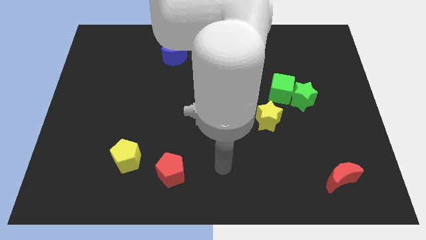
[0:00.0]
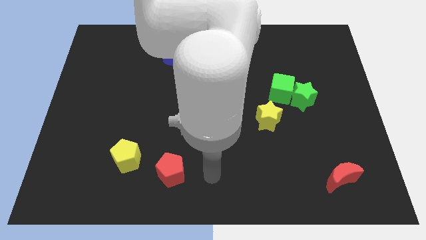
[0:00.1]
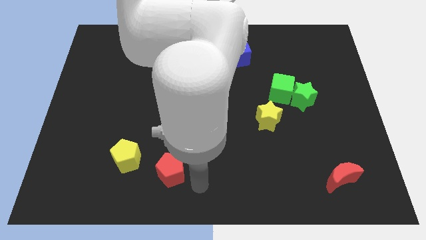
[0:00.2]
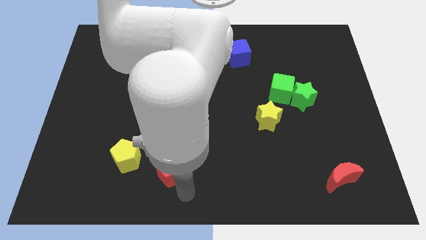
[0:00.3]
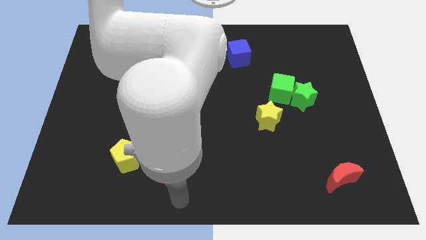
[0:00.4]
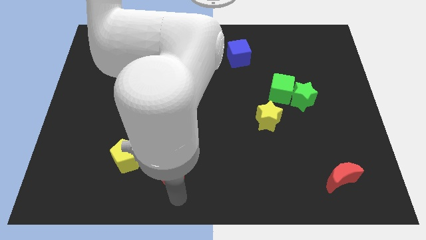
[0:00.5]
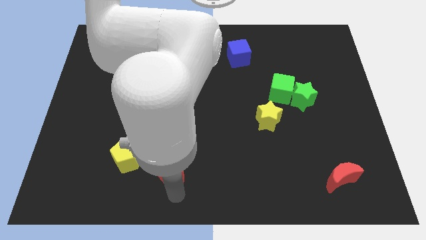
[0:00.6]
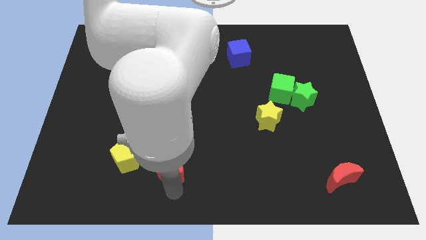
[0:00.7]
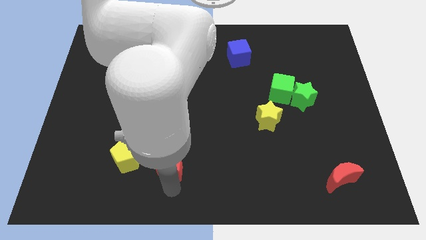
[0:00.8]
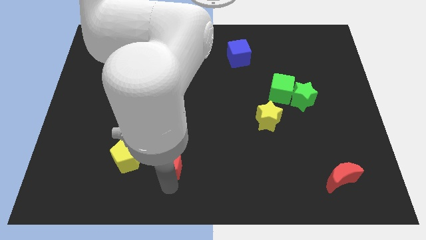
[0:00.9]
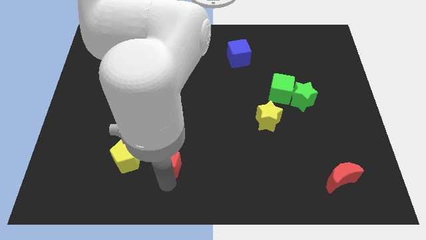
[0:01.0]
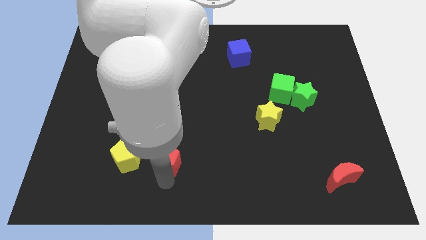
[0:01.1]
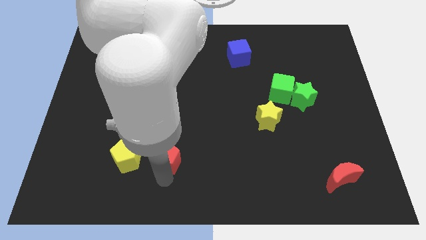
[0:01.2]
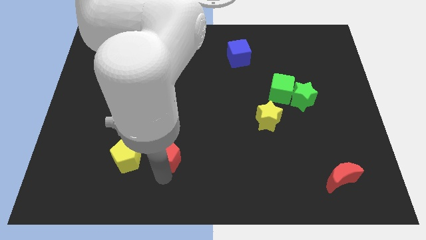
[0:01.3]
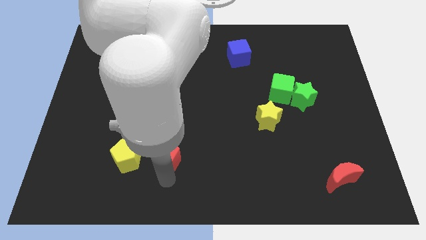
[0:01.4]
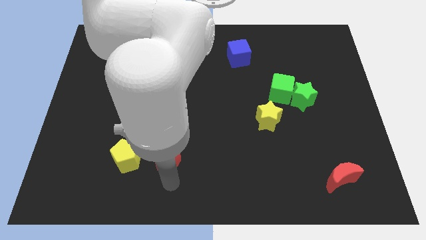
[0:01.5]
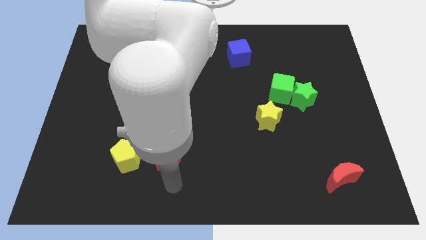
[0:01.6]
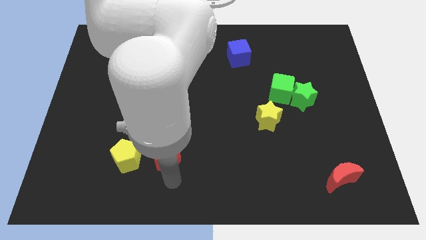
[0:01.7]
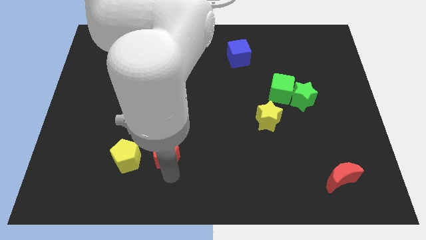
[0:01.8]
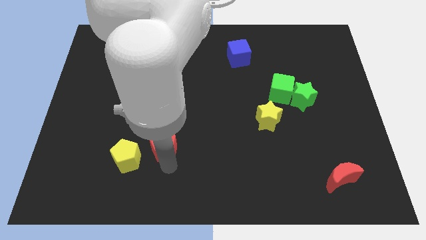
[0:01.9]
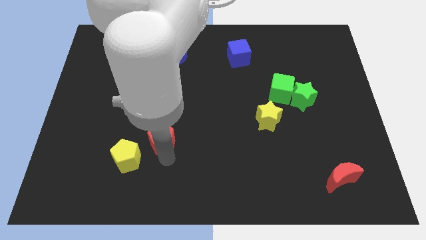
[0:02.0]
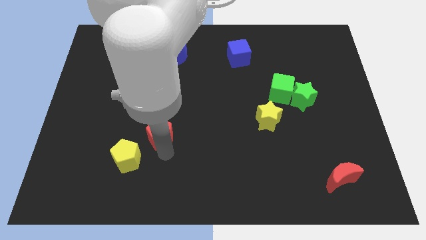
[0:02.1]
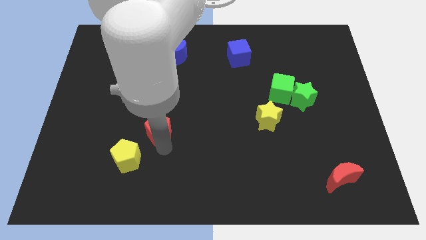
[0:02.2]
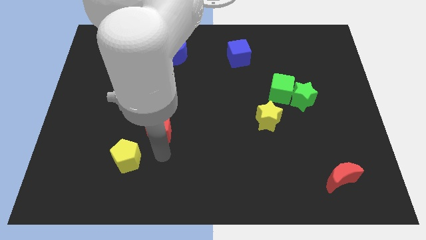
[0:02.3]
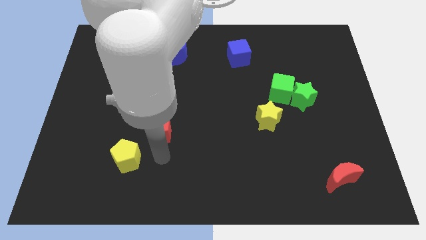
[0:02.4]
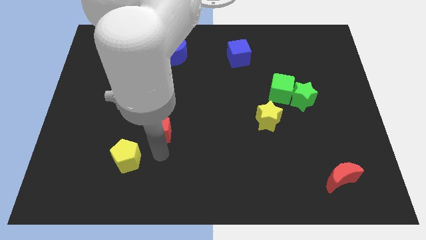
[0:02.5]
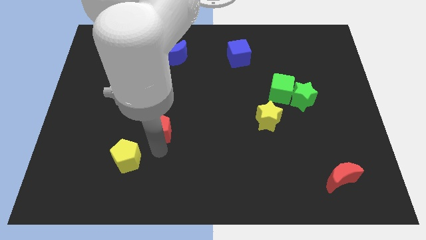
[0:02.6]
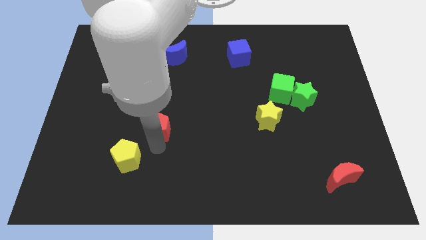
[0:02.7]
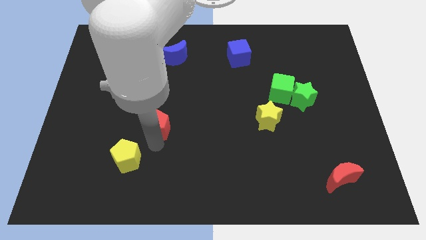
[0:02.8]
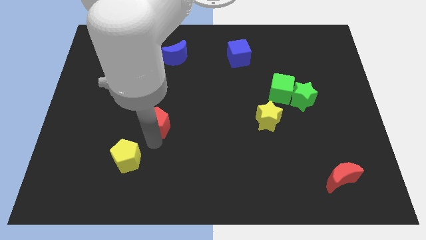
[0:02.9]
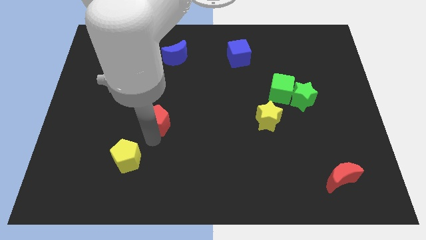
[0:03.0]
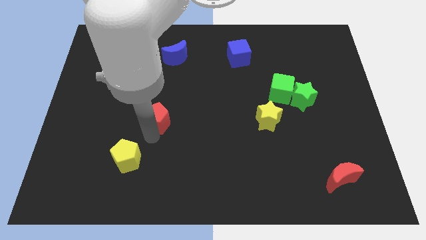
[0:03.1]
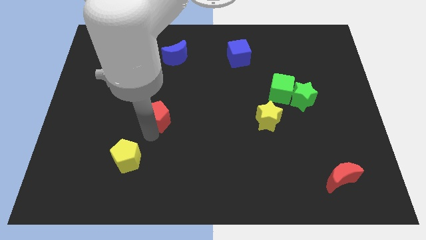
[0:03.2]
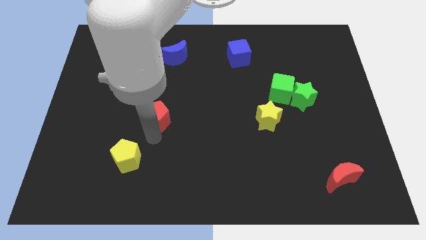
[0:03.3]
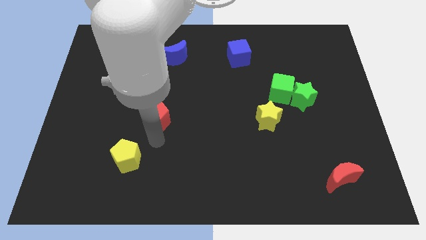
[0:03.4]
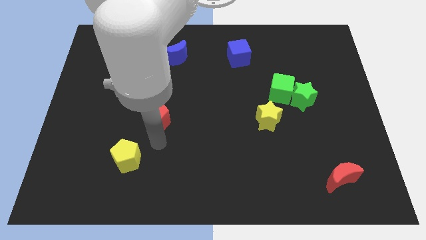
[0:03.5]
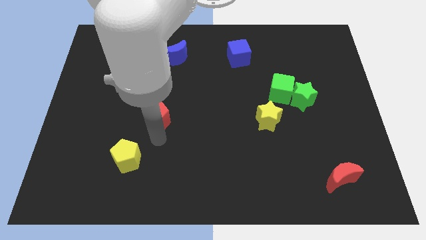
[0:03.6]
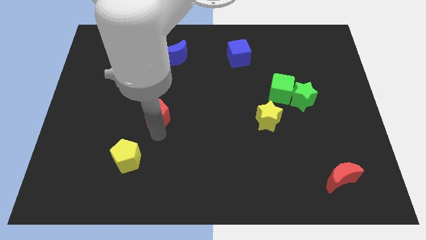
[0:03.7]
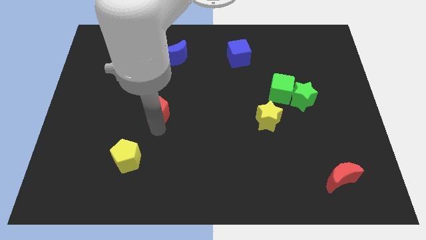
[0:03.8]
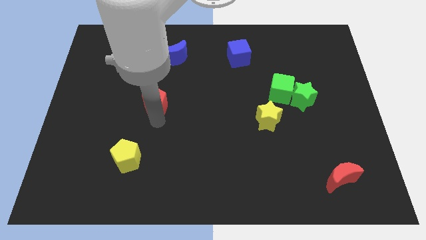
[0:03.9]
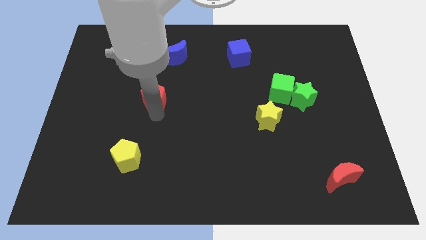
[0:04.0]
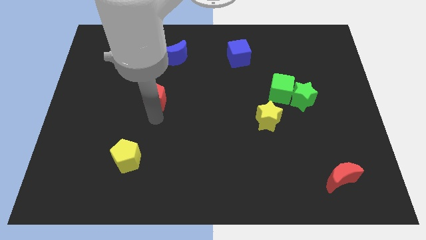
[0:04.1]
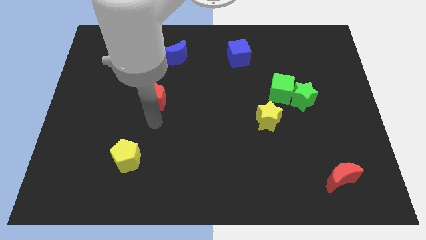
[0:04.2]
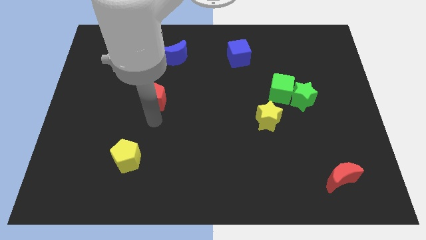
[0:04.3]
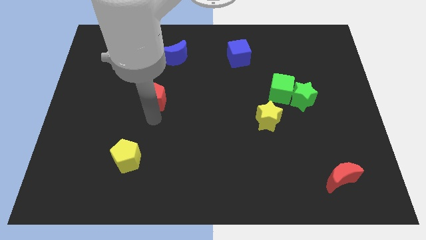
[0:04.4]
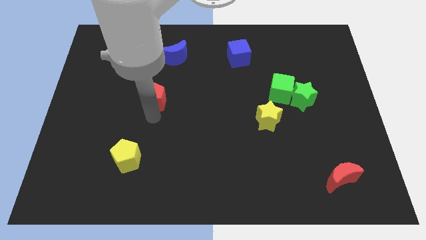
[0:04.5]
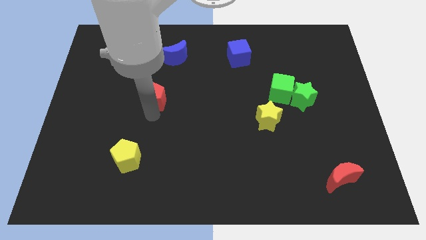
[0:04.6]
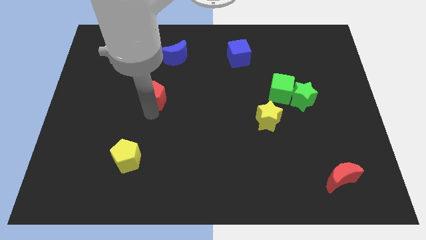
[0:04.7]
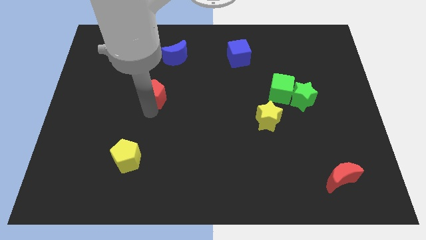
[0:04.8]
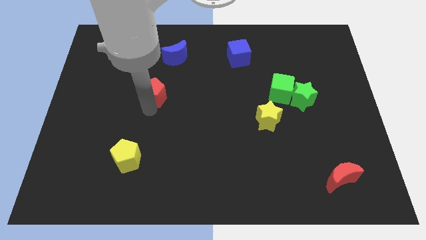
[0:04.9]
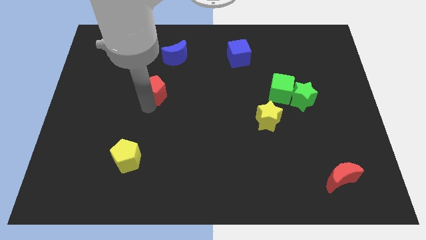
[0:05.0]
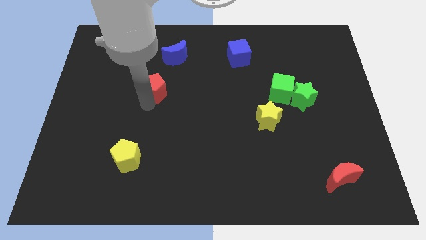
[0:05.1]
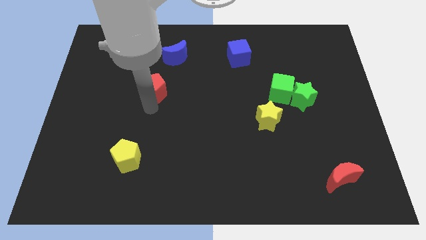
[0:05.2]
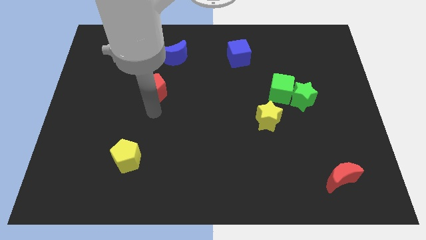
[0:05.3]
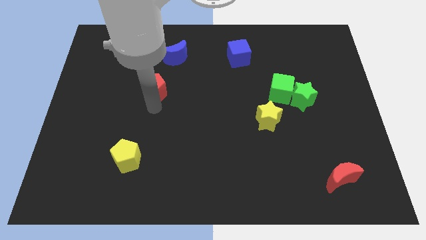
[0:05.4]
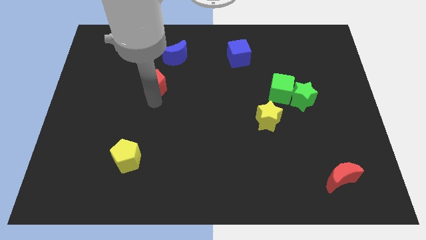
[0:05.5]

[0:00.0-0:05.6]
move the red pentagon diagonally down and to the left of the blue moon

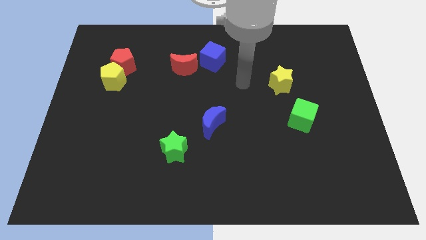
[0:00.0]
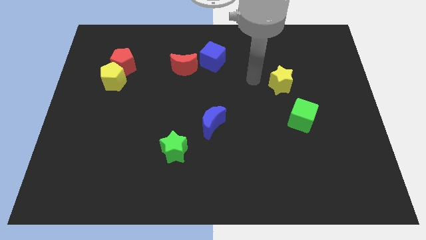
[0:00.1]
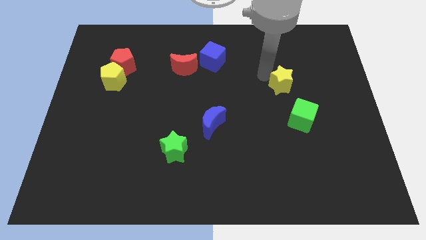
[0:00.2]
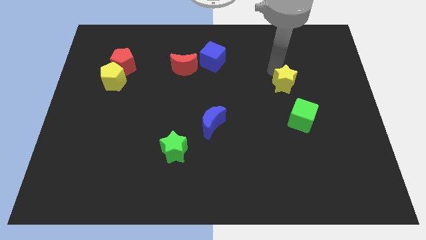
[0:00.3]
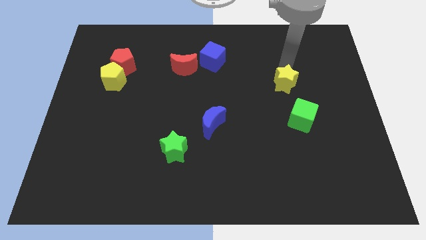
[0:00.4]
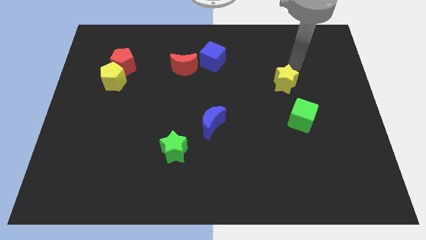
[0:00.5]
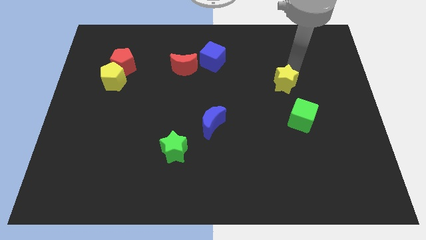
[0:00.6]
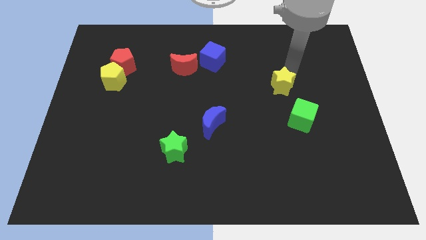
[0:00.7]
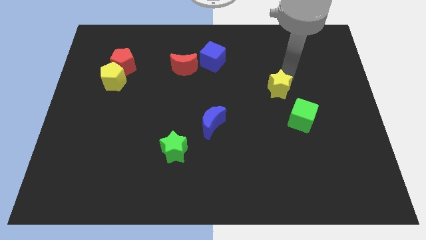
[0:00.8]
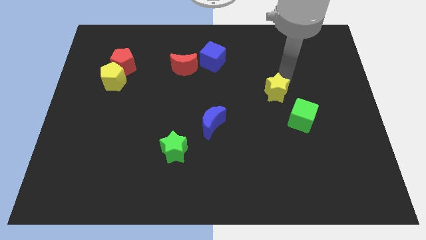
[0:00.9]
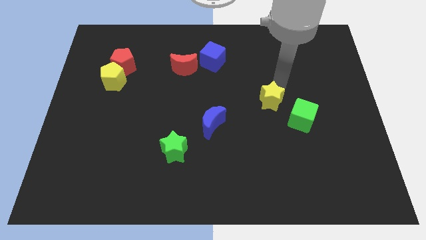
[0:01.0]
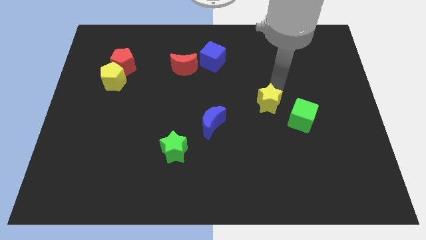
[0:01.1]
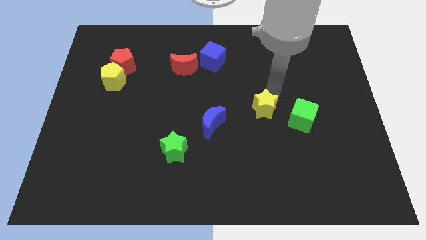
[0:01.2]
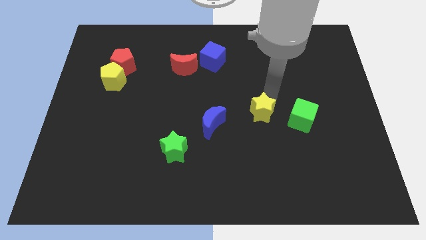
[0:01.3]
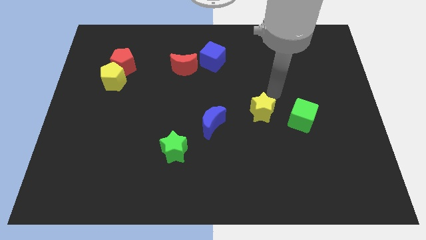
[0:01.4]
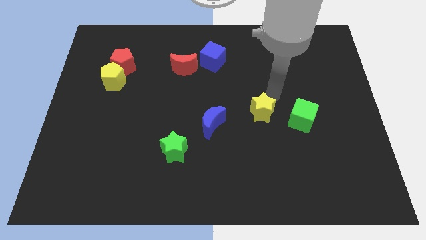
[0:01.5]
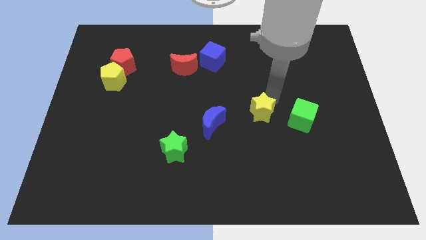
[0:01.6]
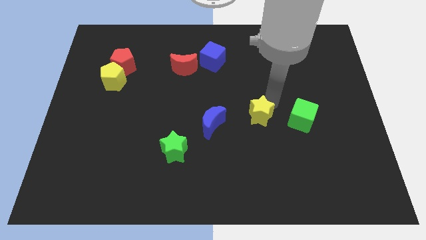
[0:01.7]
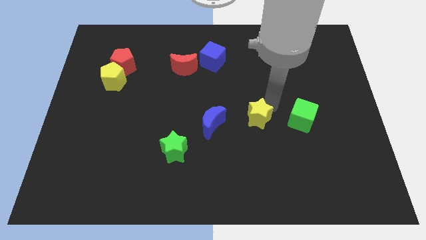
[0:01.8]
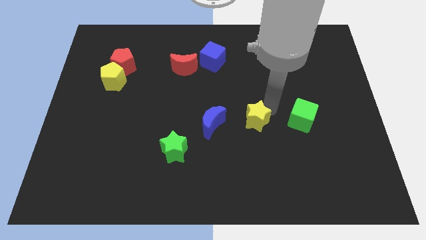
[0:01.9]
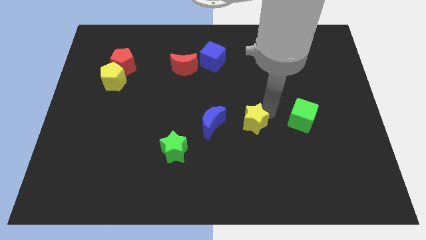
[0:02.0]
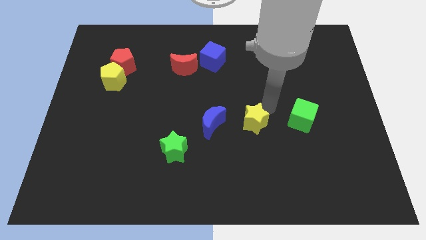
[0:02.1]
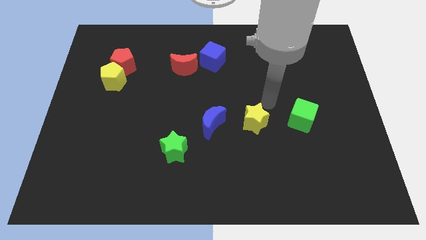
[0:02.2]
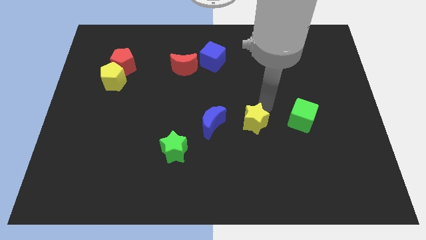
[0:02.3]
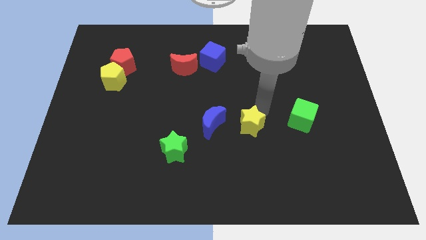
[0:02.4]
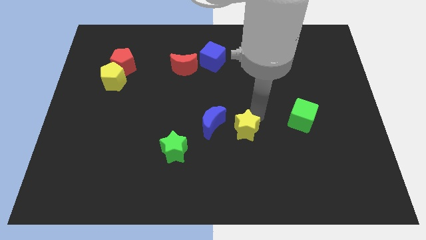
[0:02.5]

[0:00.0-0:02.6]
slide the yellow star to the bottom right side of the blue moon
